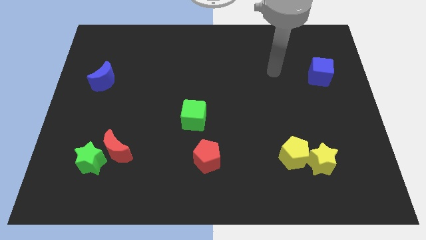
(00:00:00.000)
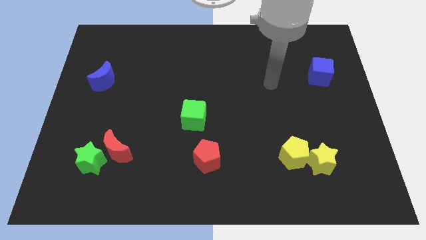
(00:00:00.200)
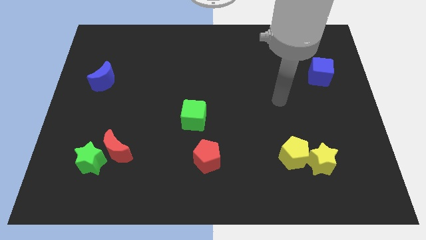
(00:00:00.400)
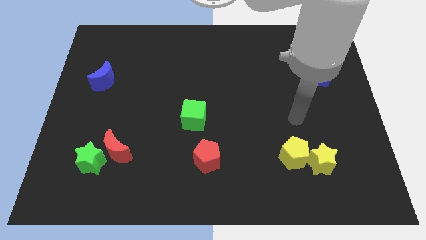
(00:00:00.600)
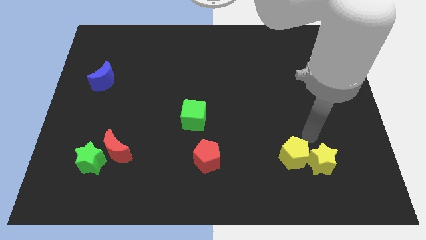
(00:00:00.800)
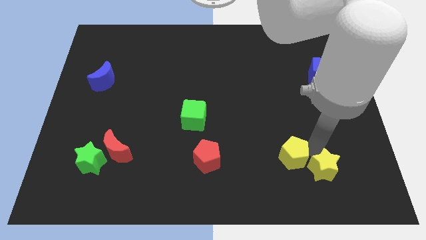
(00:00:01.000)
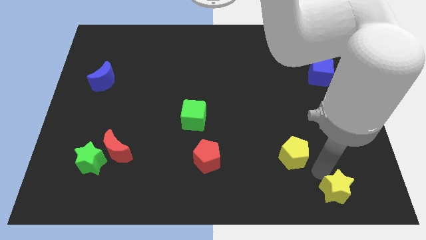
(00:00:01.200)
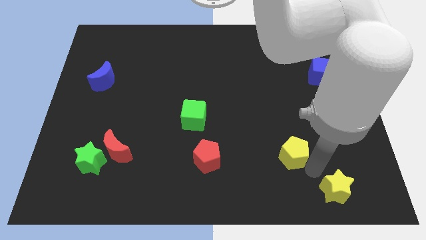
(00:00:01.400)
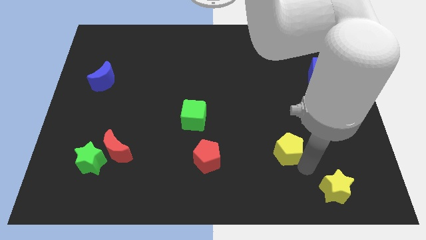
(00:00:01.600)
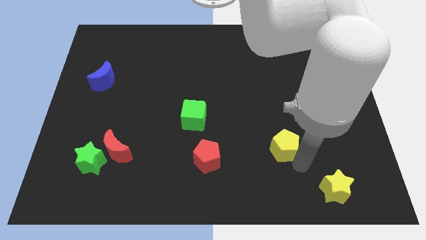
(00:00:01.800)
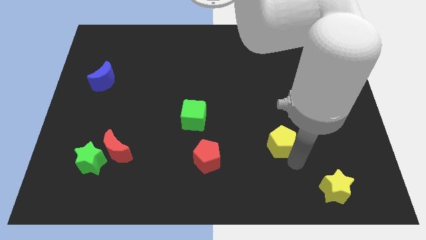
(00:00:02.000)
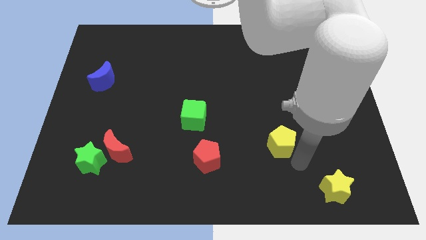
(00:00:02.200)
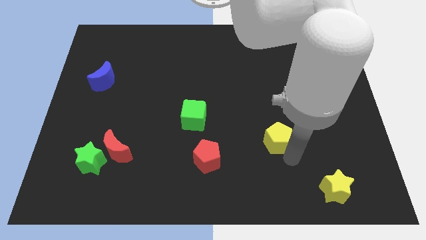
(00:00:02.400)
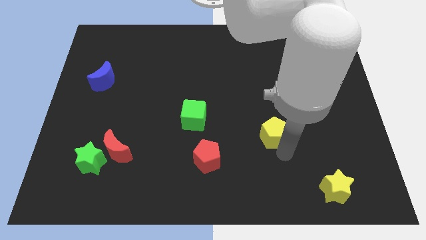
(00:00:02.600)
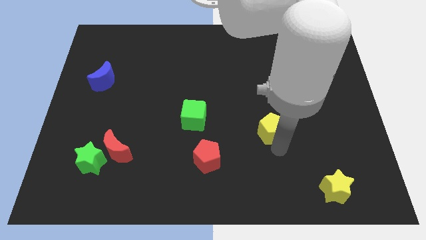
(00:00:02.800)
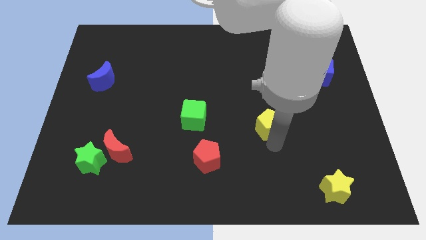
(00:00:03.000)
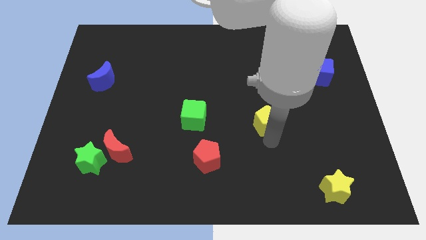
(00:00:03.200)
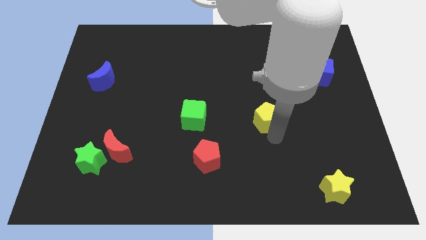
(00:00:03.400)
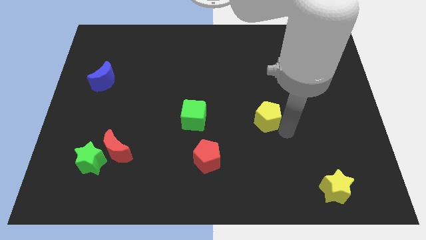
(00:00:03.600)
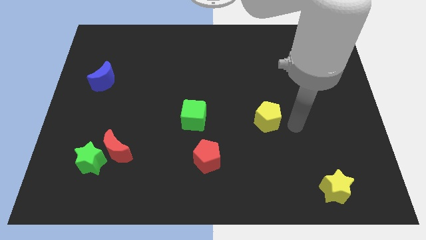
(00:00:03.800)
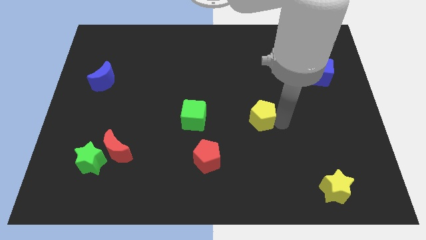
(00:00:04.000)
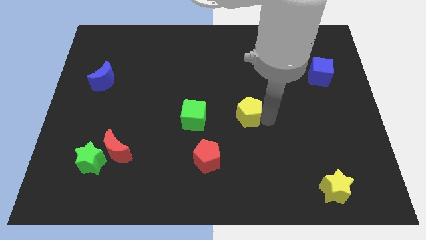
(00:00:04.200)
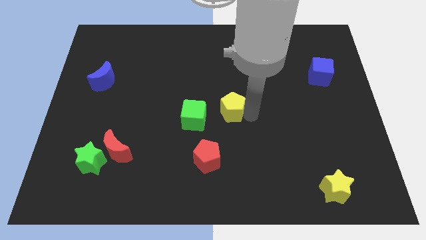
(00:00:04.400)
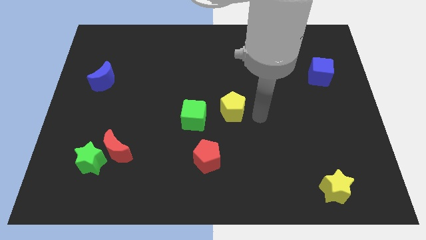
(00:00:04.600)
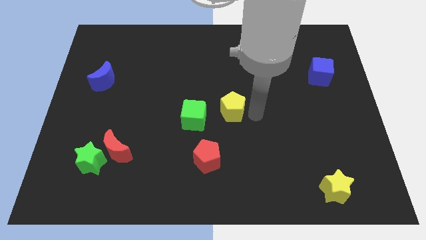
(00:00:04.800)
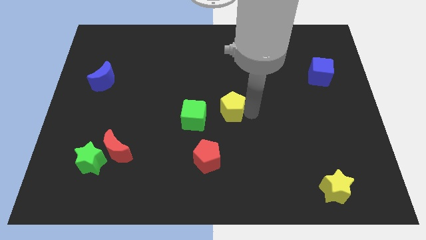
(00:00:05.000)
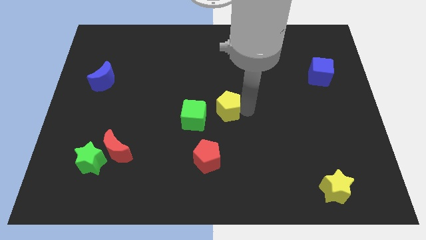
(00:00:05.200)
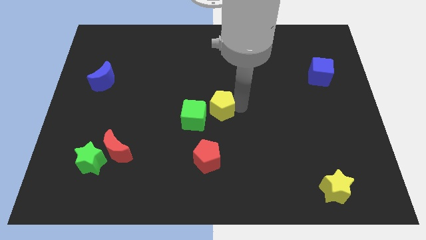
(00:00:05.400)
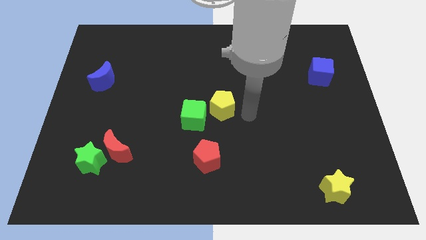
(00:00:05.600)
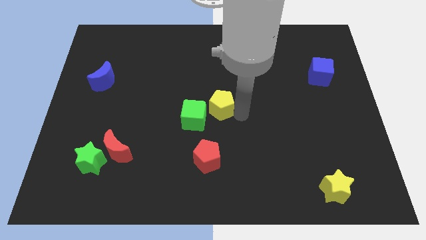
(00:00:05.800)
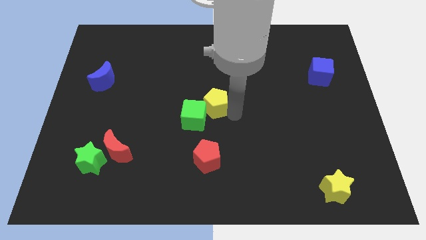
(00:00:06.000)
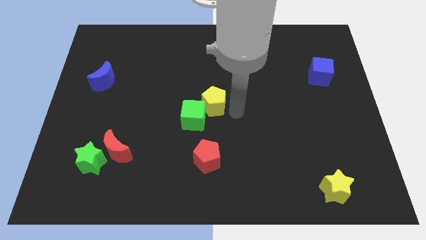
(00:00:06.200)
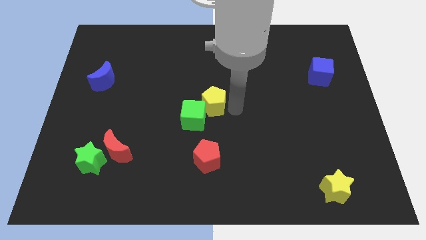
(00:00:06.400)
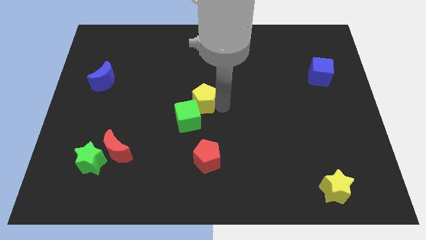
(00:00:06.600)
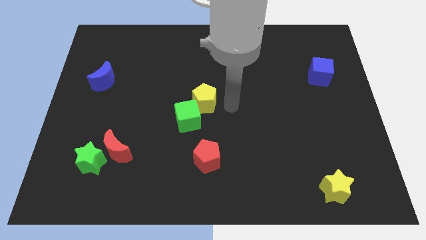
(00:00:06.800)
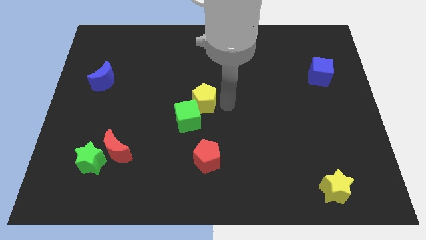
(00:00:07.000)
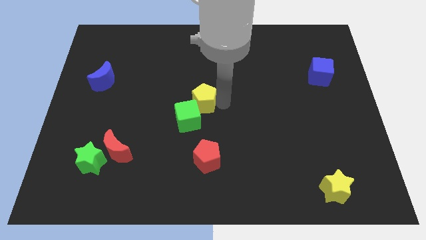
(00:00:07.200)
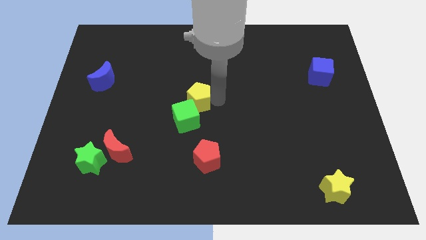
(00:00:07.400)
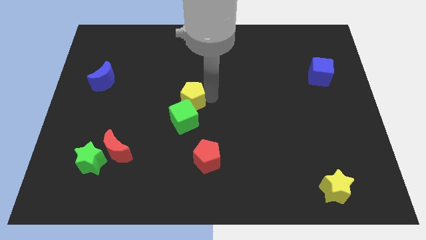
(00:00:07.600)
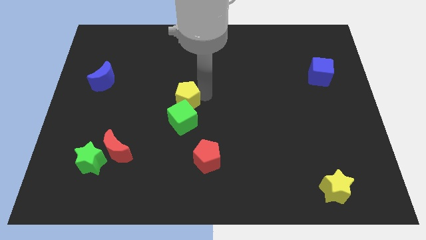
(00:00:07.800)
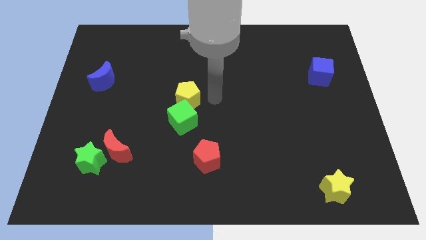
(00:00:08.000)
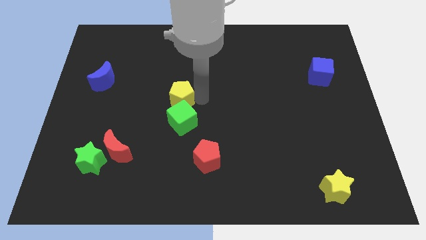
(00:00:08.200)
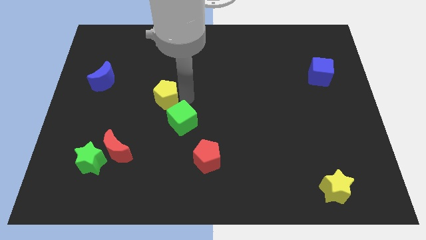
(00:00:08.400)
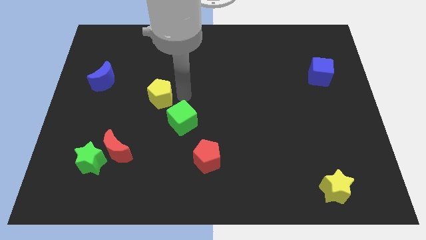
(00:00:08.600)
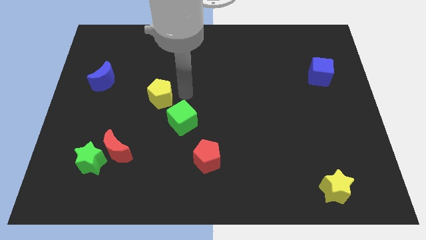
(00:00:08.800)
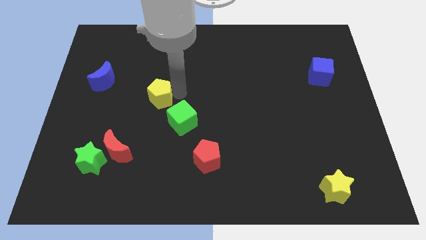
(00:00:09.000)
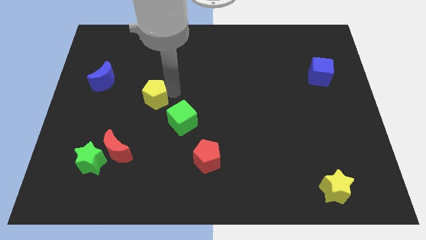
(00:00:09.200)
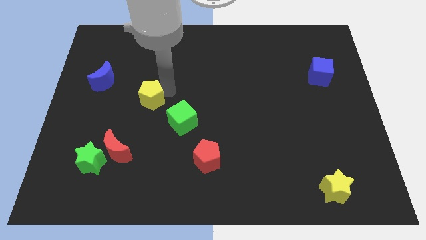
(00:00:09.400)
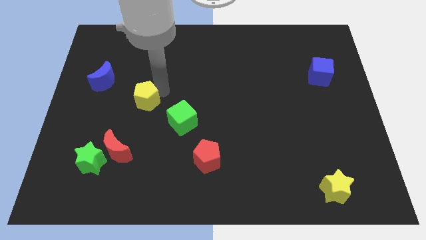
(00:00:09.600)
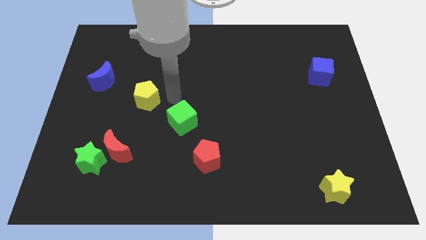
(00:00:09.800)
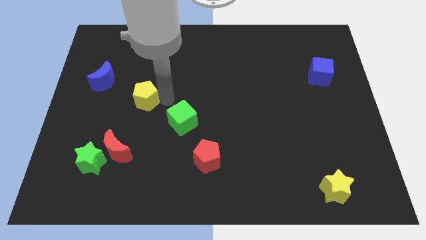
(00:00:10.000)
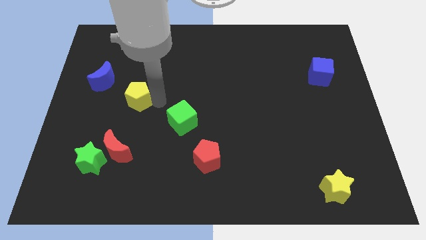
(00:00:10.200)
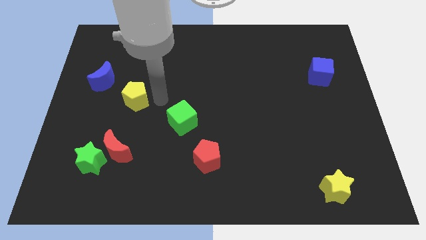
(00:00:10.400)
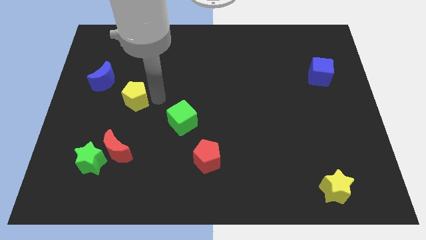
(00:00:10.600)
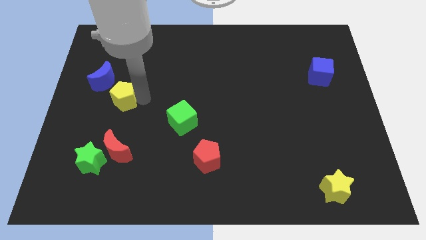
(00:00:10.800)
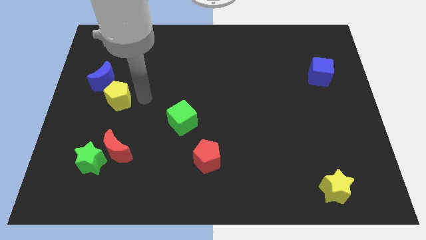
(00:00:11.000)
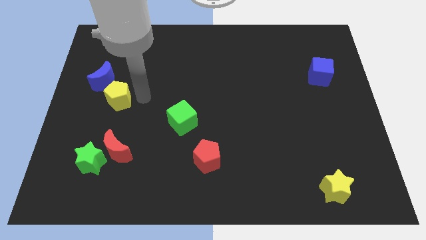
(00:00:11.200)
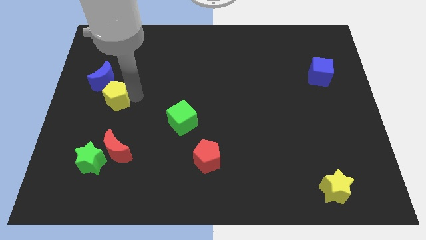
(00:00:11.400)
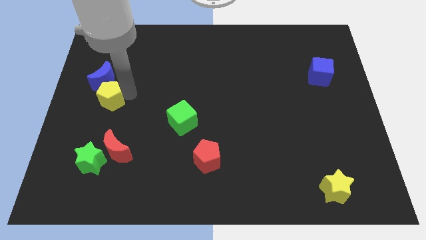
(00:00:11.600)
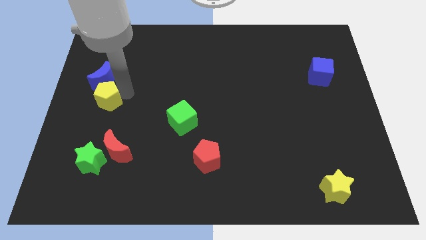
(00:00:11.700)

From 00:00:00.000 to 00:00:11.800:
push the yellow pentagon to the left side of the board

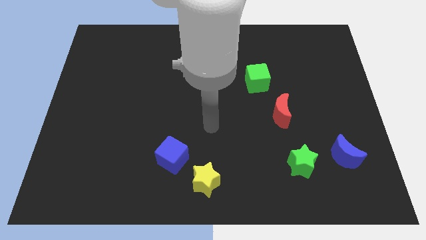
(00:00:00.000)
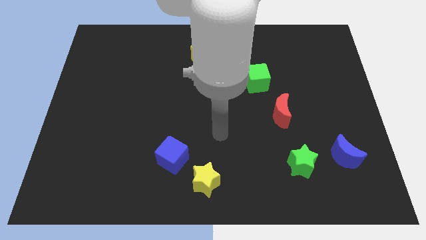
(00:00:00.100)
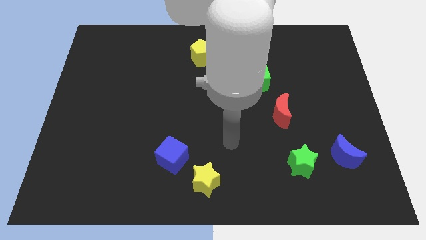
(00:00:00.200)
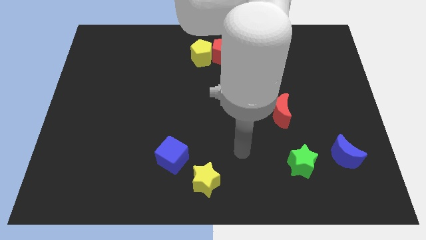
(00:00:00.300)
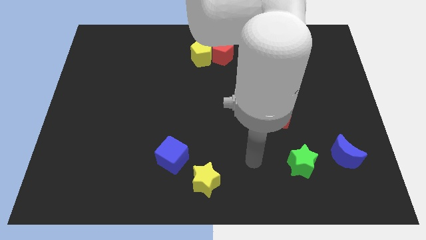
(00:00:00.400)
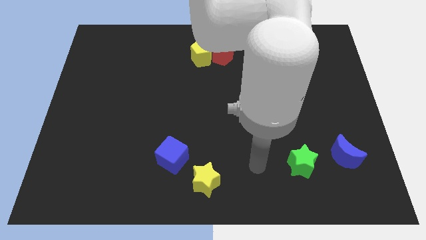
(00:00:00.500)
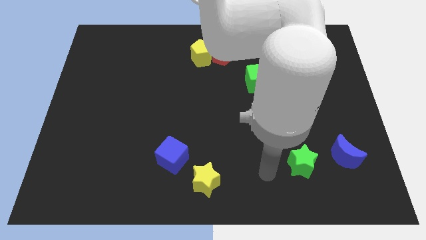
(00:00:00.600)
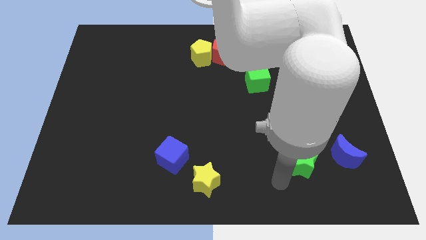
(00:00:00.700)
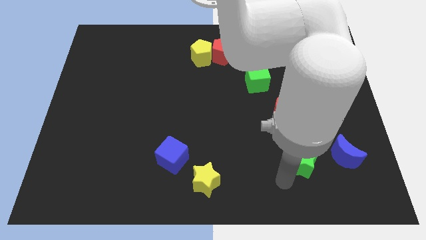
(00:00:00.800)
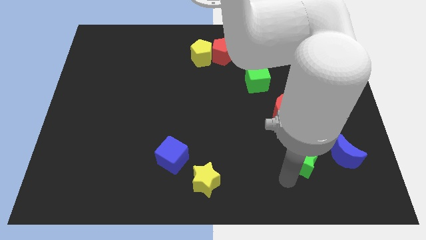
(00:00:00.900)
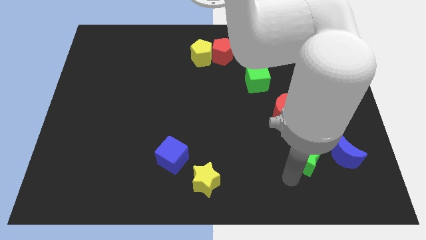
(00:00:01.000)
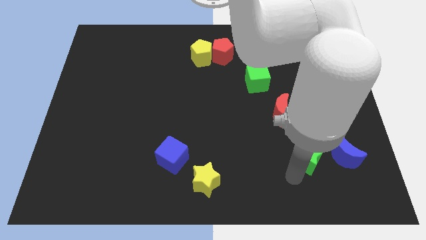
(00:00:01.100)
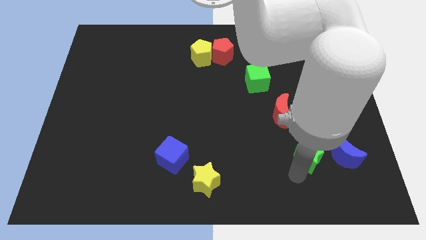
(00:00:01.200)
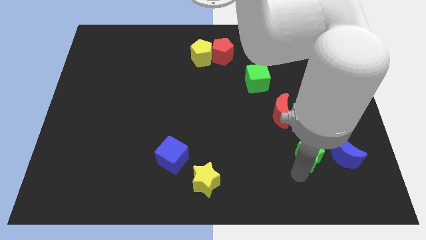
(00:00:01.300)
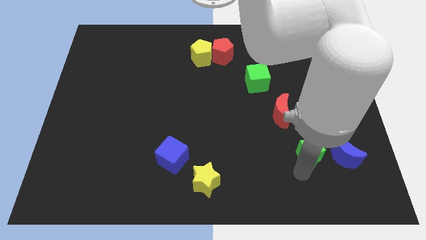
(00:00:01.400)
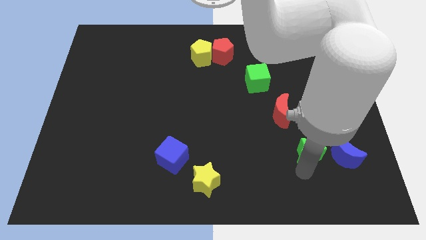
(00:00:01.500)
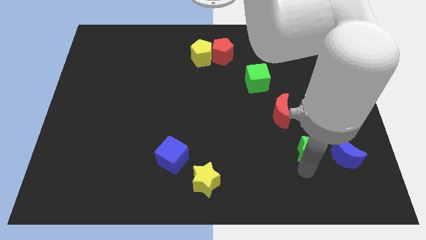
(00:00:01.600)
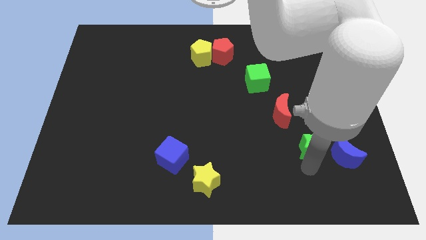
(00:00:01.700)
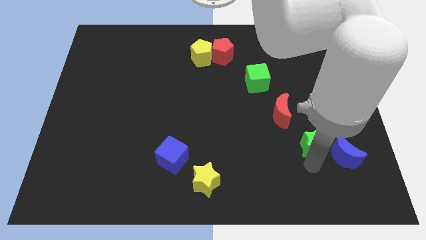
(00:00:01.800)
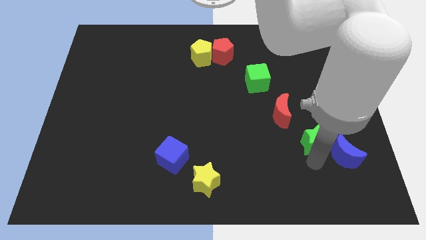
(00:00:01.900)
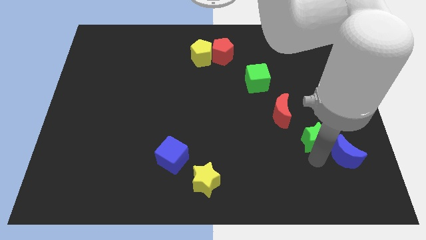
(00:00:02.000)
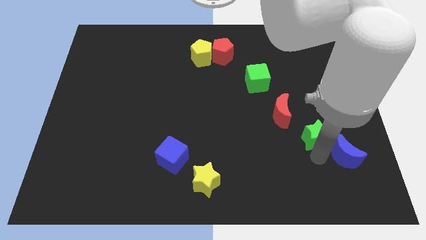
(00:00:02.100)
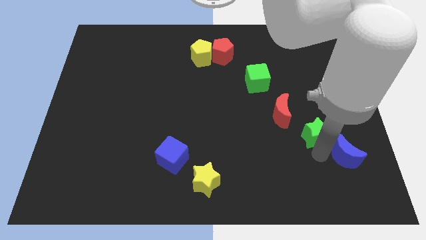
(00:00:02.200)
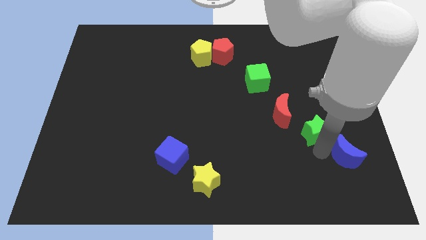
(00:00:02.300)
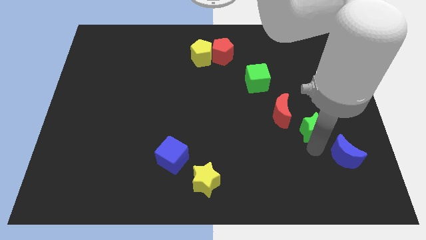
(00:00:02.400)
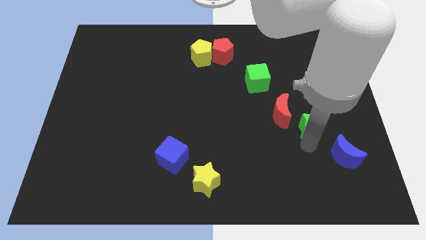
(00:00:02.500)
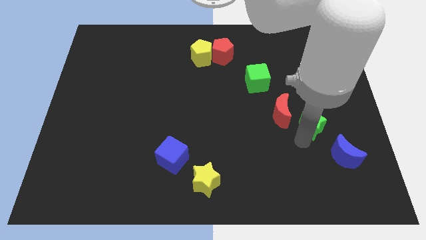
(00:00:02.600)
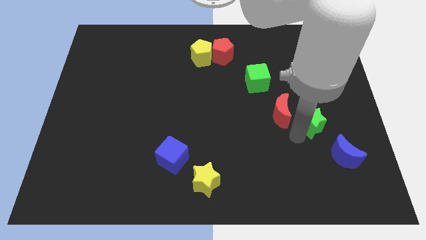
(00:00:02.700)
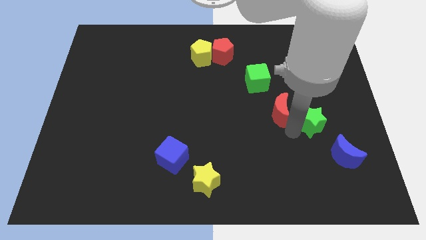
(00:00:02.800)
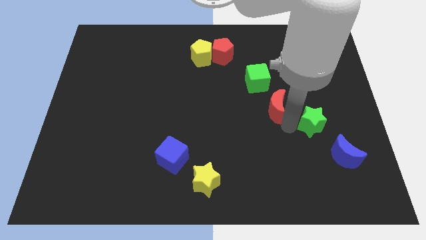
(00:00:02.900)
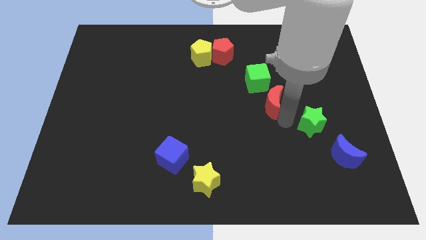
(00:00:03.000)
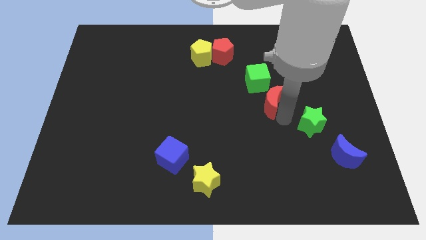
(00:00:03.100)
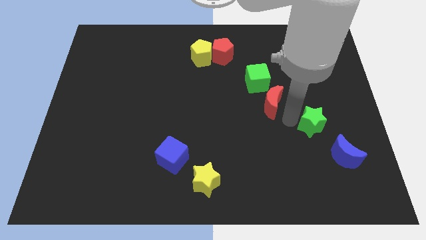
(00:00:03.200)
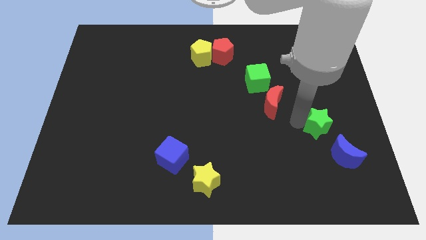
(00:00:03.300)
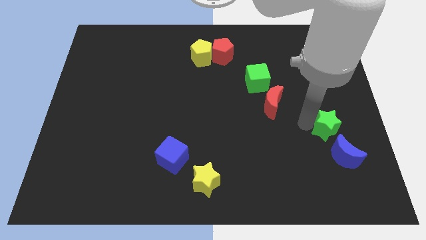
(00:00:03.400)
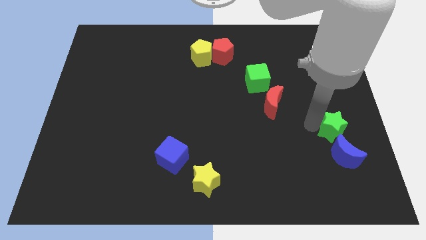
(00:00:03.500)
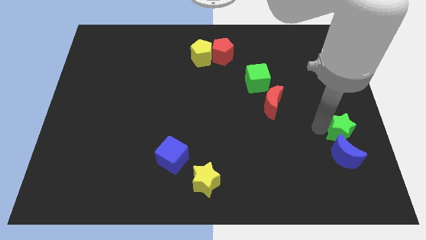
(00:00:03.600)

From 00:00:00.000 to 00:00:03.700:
put the green star to the center right
